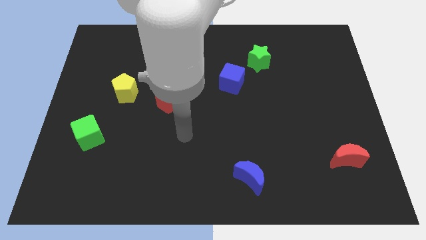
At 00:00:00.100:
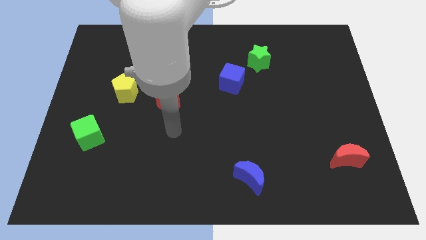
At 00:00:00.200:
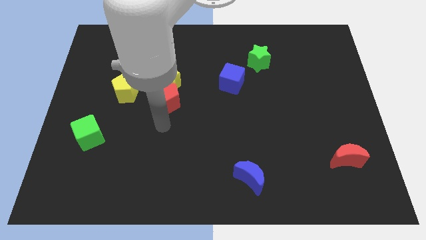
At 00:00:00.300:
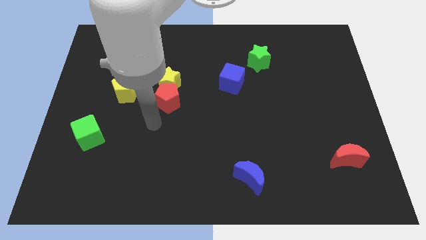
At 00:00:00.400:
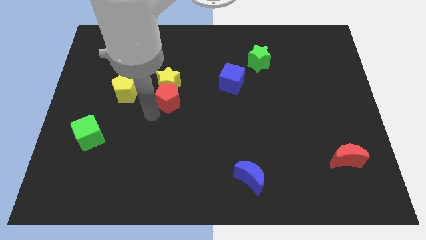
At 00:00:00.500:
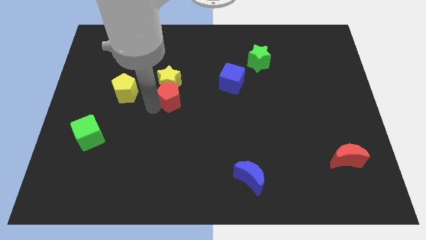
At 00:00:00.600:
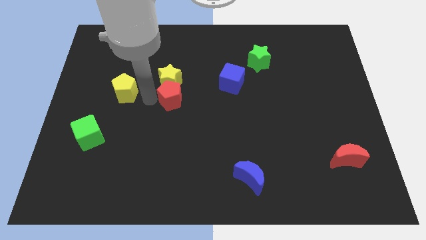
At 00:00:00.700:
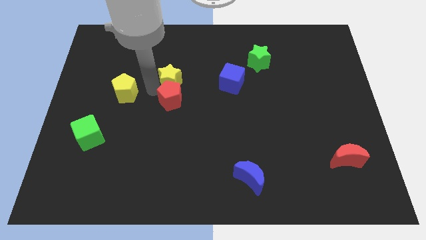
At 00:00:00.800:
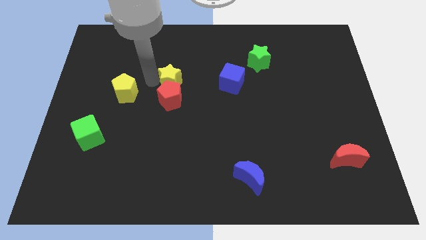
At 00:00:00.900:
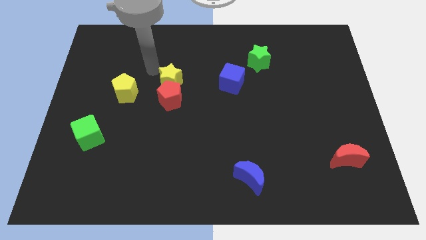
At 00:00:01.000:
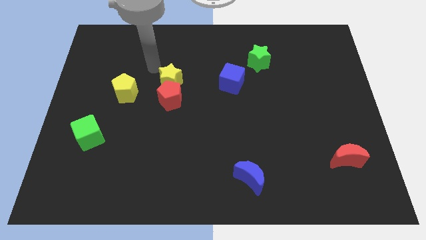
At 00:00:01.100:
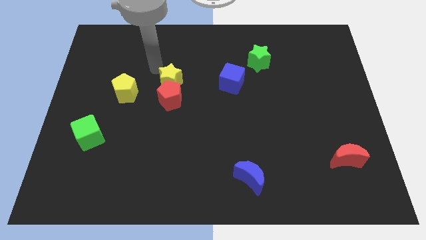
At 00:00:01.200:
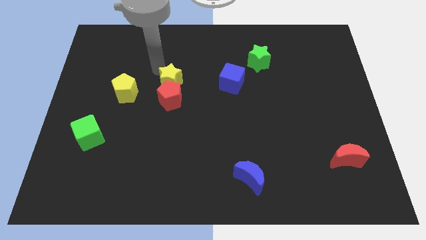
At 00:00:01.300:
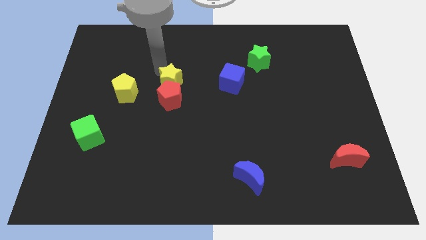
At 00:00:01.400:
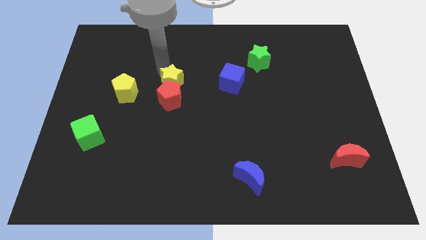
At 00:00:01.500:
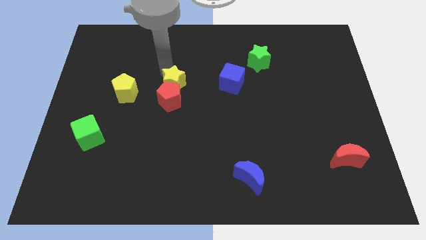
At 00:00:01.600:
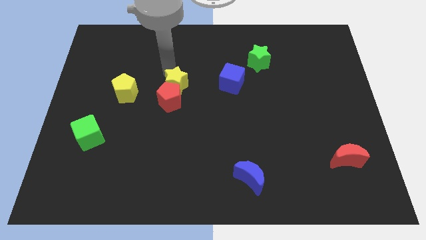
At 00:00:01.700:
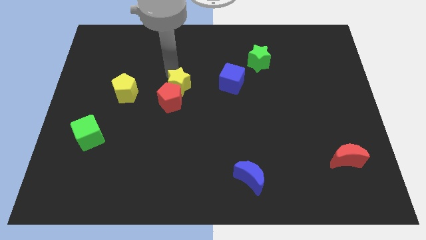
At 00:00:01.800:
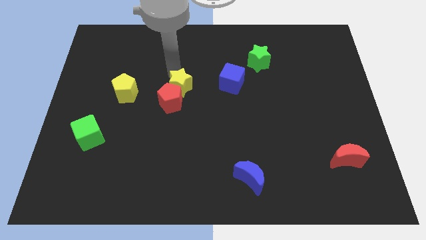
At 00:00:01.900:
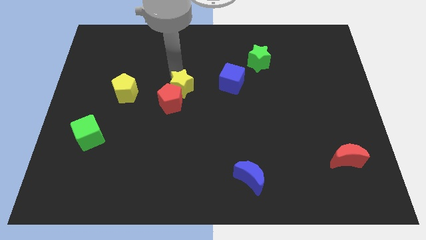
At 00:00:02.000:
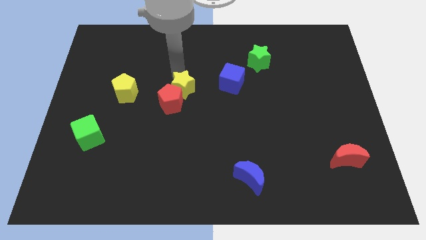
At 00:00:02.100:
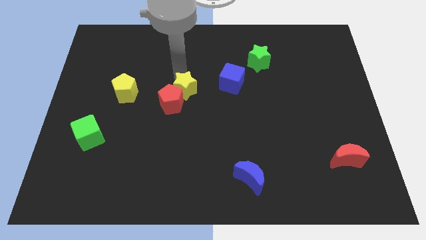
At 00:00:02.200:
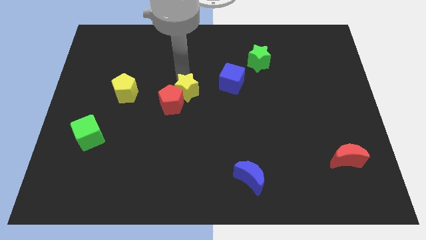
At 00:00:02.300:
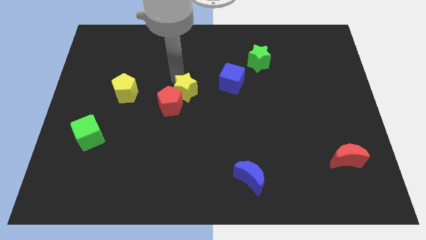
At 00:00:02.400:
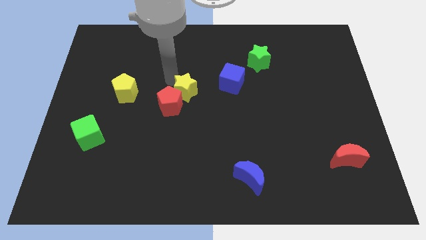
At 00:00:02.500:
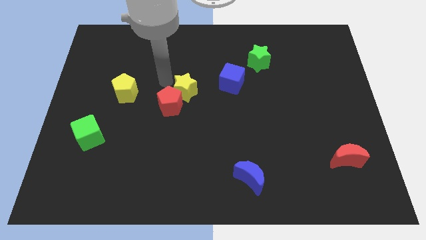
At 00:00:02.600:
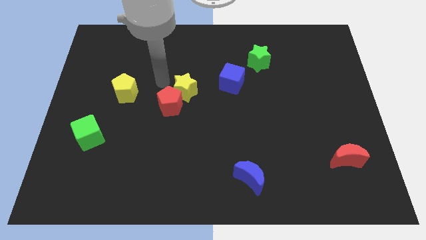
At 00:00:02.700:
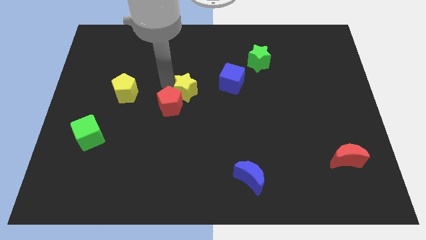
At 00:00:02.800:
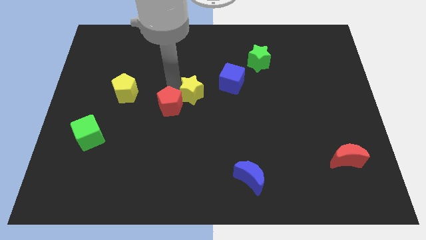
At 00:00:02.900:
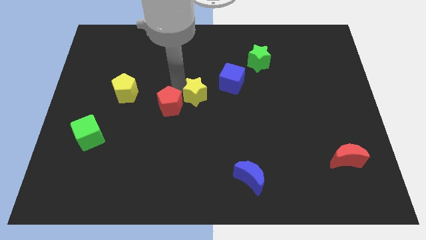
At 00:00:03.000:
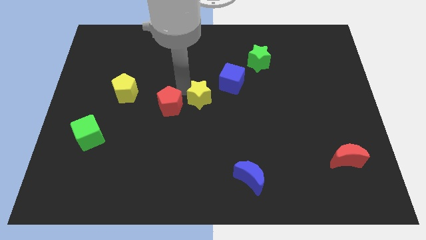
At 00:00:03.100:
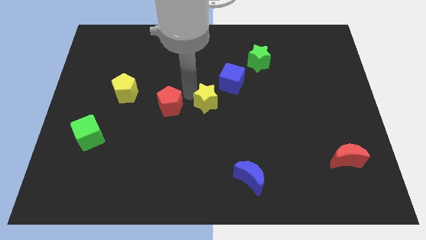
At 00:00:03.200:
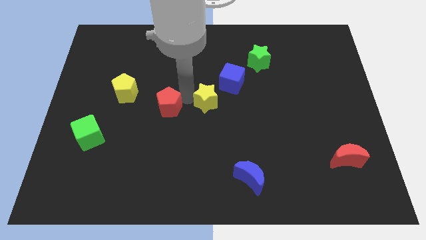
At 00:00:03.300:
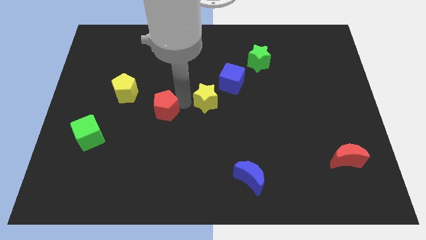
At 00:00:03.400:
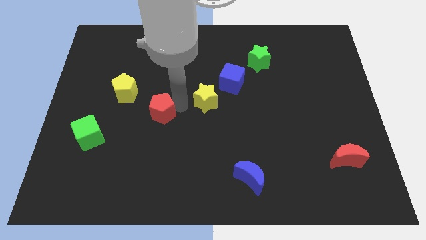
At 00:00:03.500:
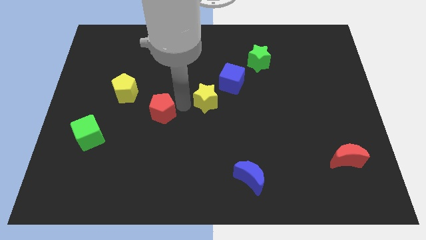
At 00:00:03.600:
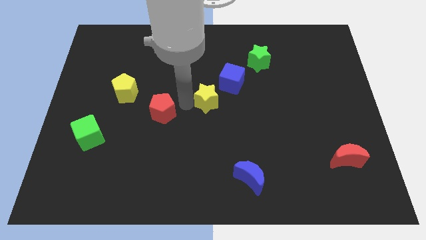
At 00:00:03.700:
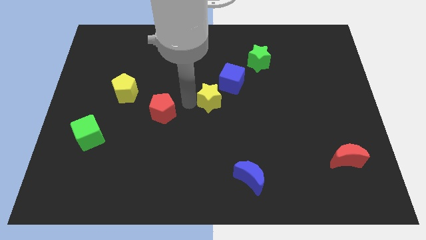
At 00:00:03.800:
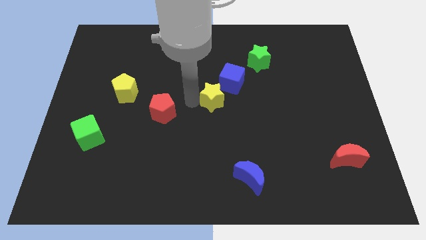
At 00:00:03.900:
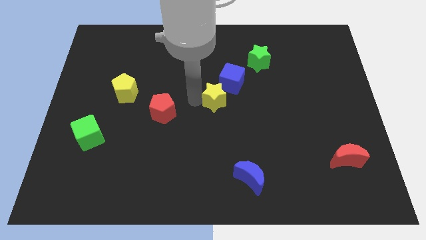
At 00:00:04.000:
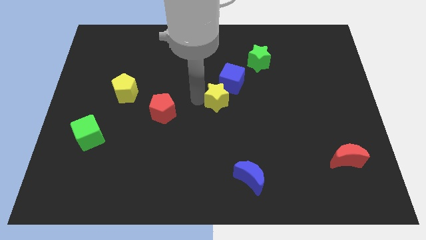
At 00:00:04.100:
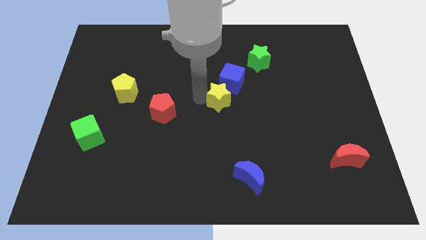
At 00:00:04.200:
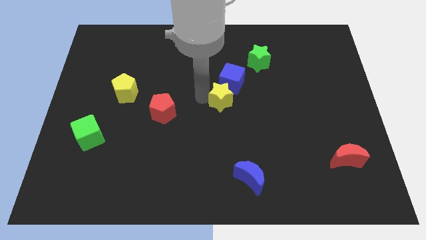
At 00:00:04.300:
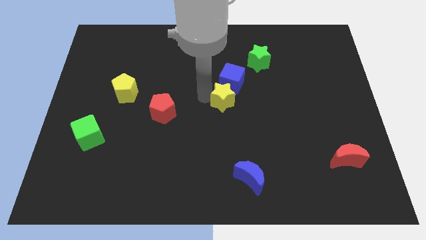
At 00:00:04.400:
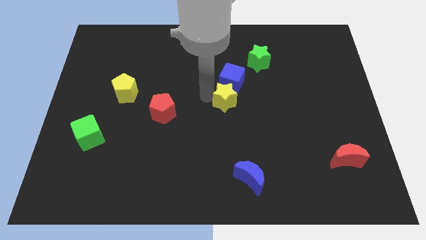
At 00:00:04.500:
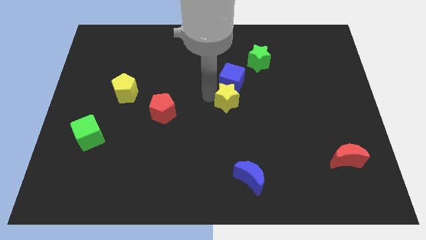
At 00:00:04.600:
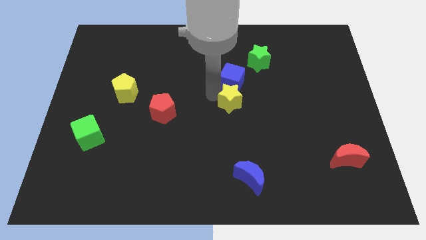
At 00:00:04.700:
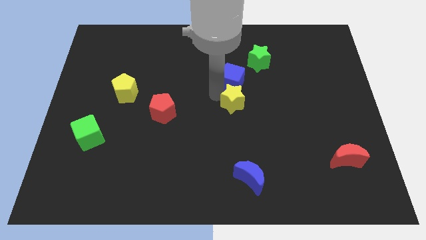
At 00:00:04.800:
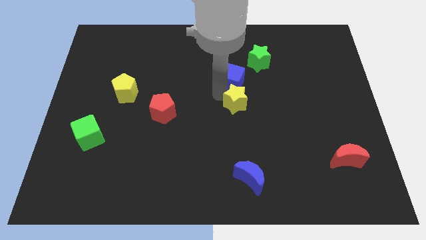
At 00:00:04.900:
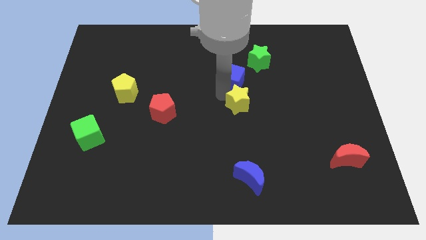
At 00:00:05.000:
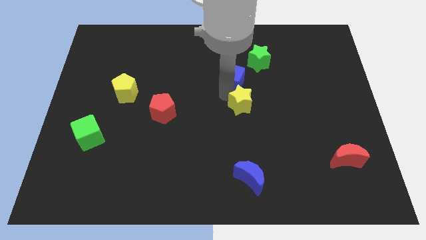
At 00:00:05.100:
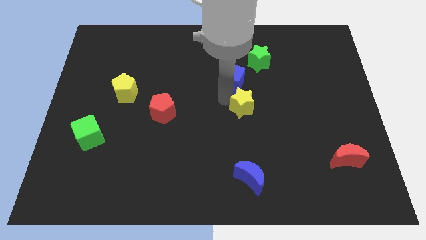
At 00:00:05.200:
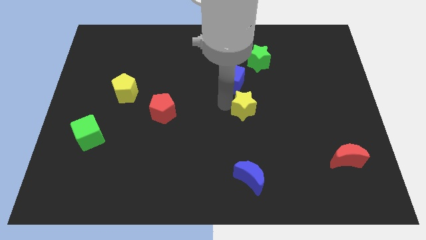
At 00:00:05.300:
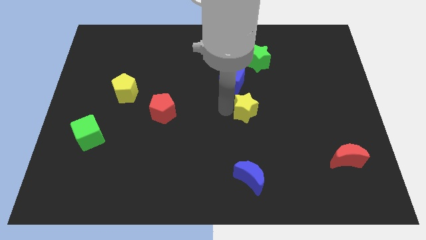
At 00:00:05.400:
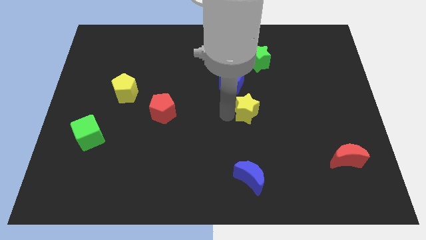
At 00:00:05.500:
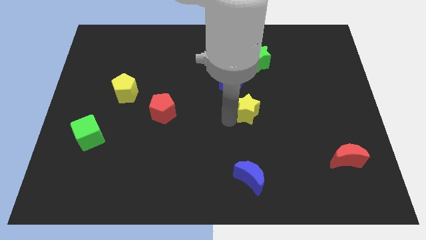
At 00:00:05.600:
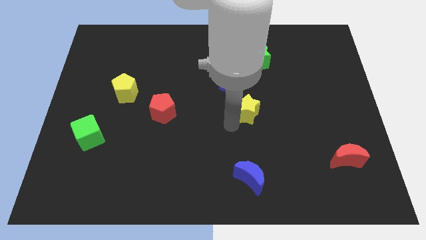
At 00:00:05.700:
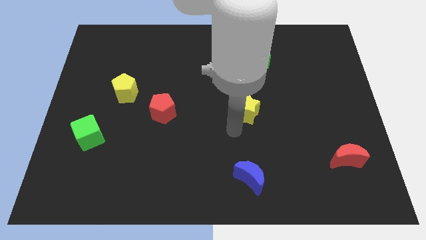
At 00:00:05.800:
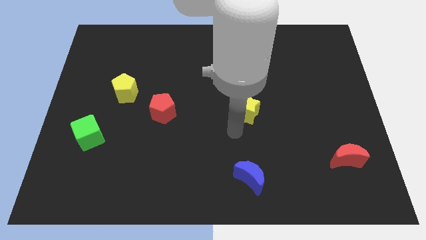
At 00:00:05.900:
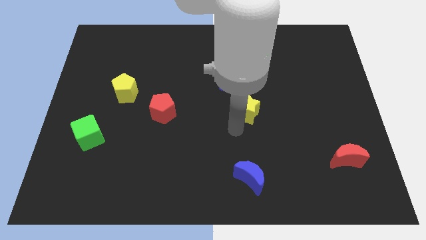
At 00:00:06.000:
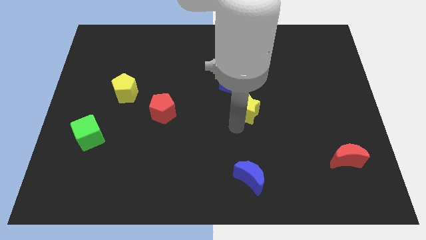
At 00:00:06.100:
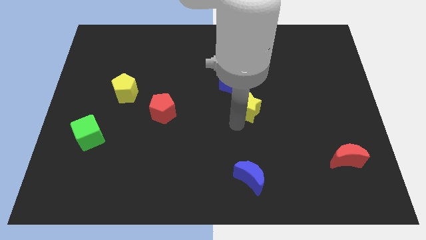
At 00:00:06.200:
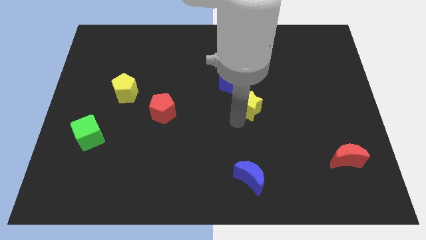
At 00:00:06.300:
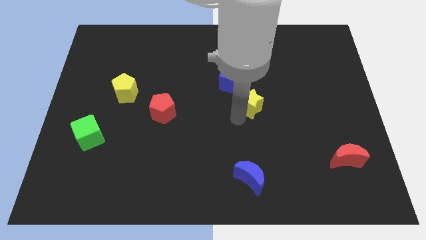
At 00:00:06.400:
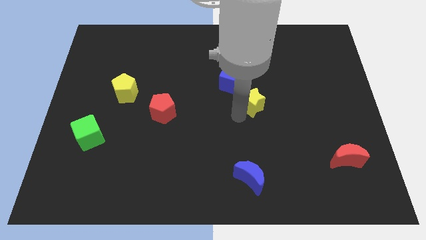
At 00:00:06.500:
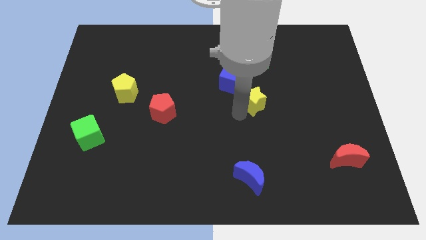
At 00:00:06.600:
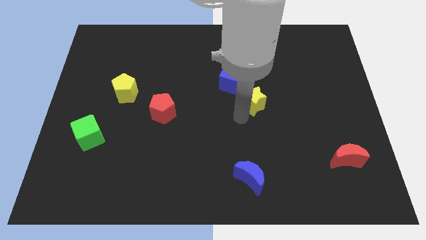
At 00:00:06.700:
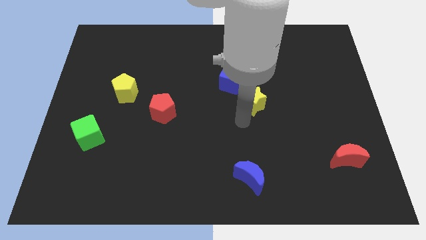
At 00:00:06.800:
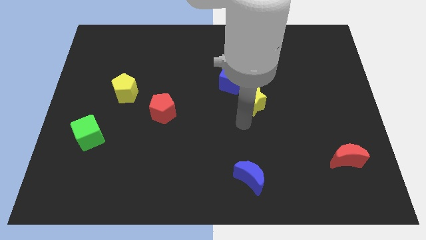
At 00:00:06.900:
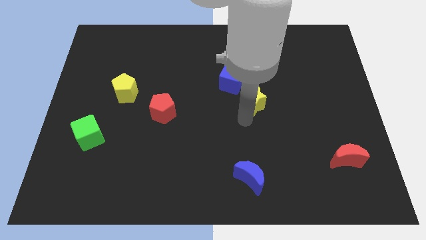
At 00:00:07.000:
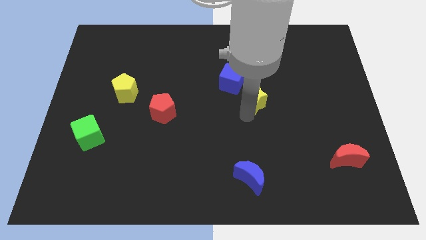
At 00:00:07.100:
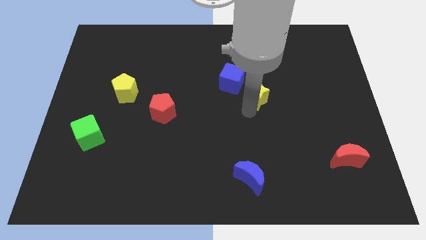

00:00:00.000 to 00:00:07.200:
move the yellow star right

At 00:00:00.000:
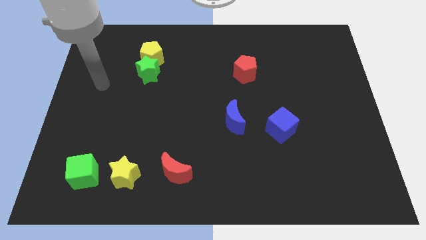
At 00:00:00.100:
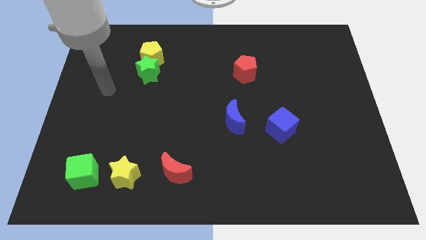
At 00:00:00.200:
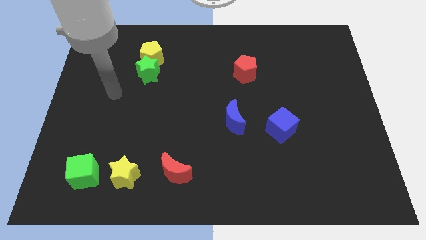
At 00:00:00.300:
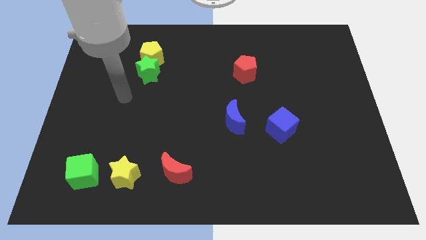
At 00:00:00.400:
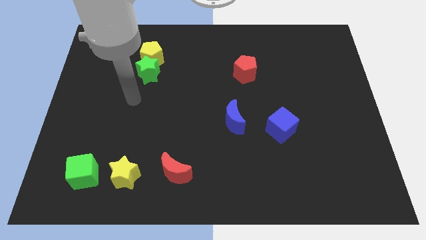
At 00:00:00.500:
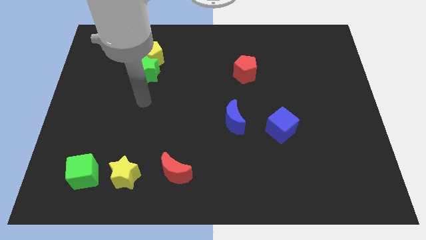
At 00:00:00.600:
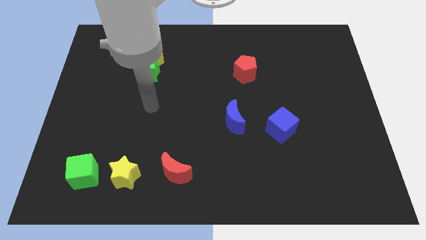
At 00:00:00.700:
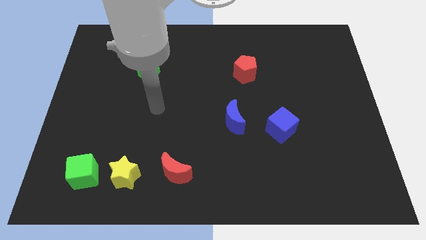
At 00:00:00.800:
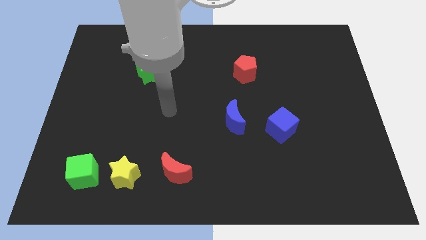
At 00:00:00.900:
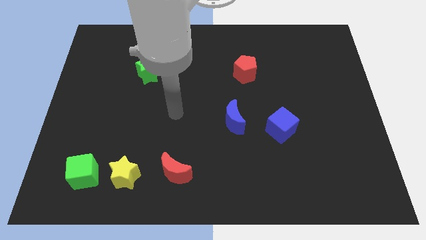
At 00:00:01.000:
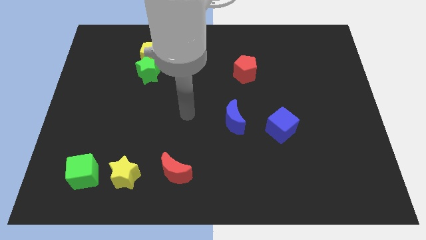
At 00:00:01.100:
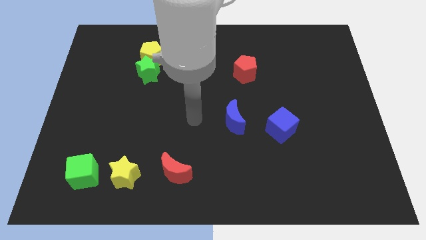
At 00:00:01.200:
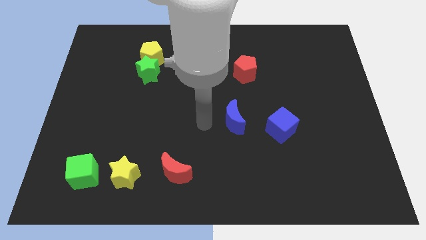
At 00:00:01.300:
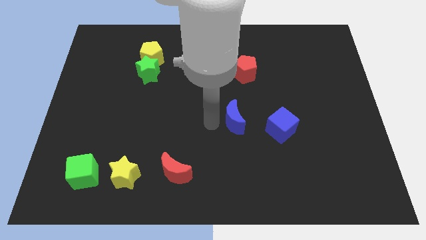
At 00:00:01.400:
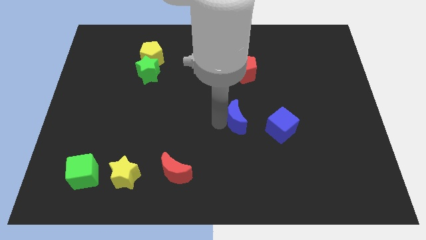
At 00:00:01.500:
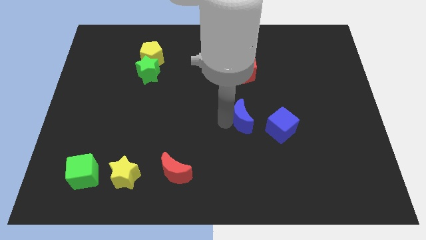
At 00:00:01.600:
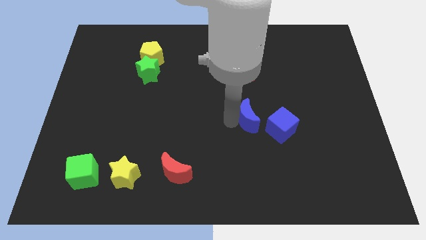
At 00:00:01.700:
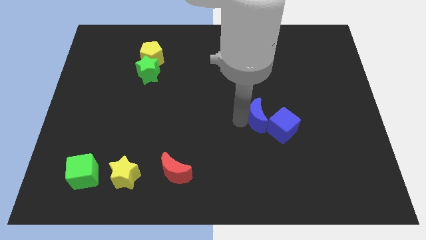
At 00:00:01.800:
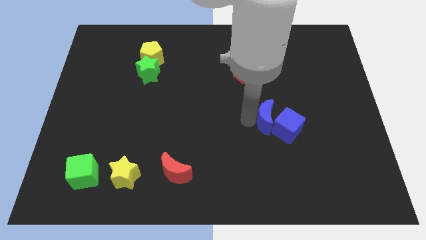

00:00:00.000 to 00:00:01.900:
push the blue moon right a bit
